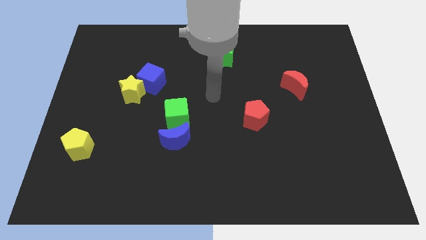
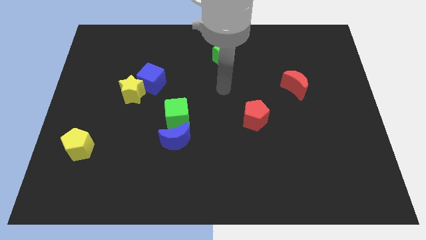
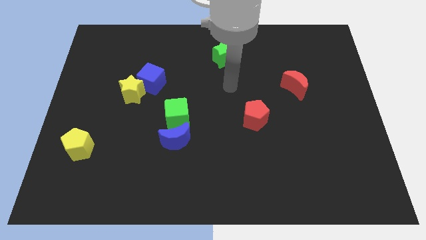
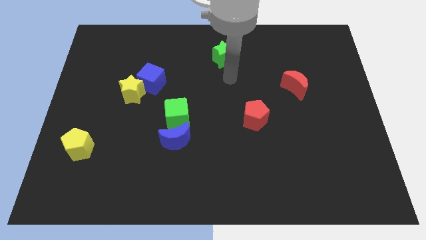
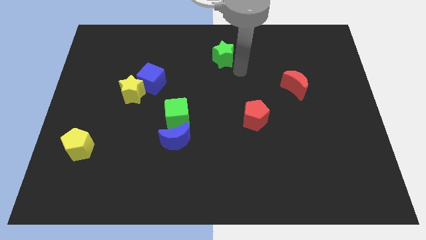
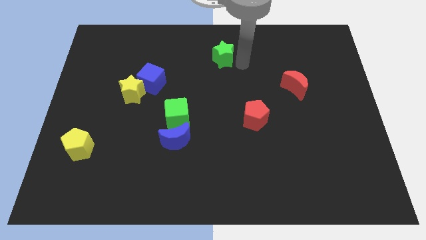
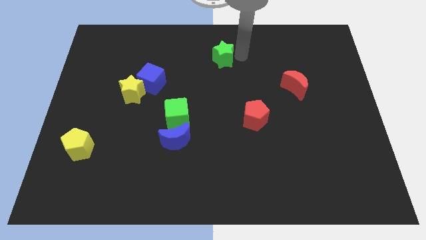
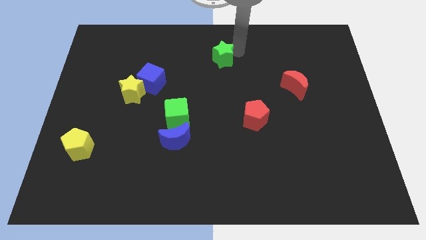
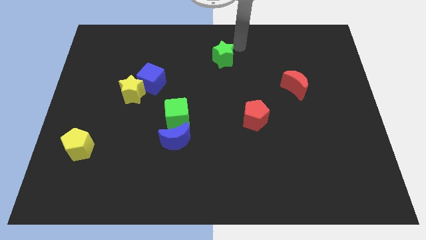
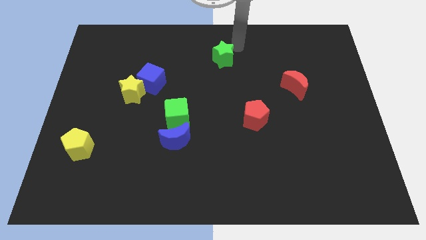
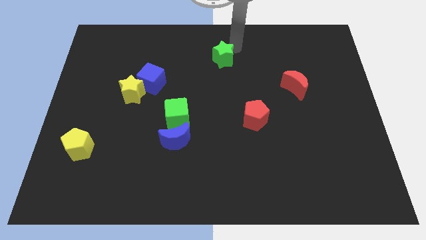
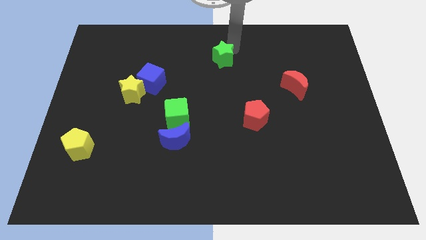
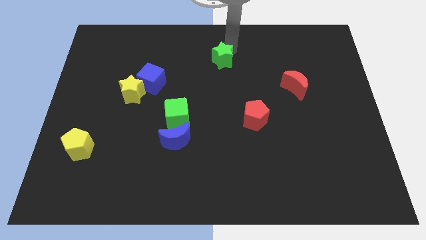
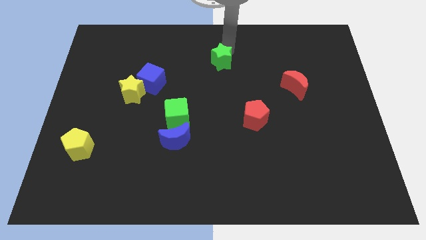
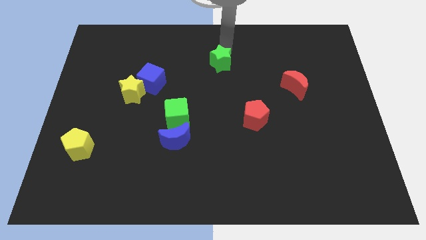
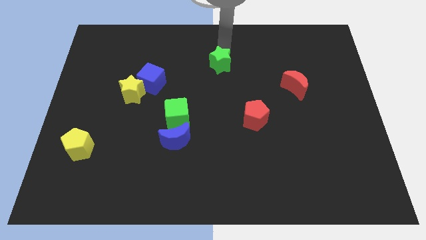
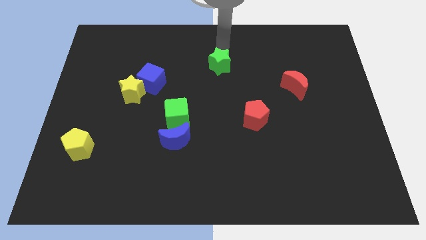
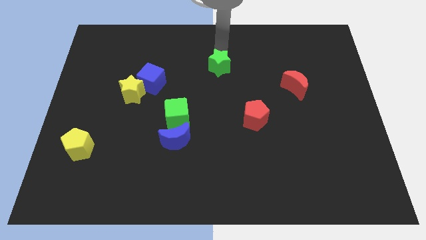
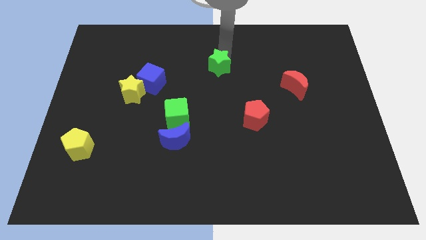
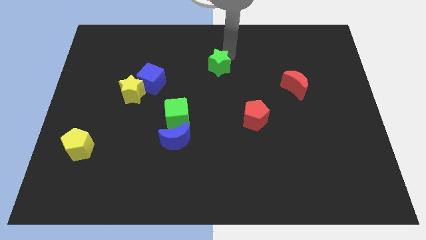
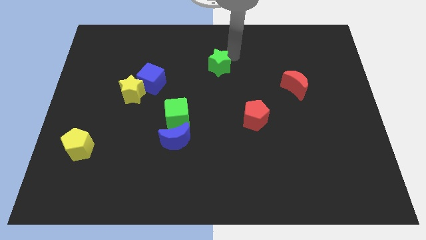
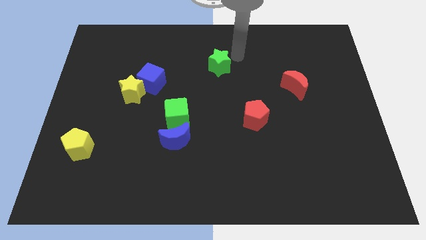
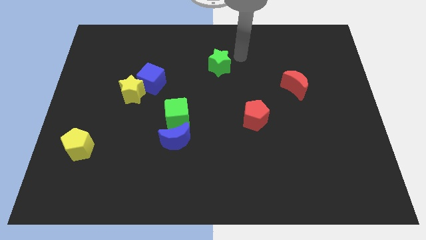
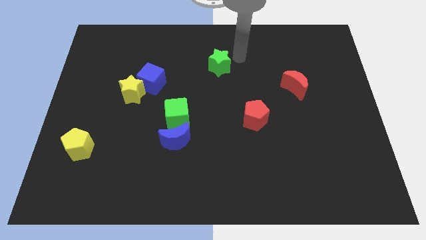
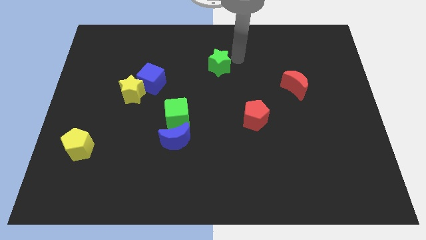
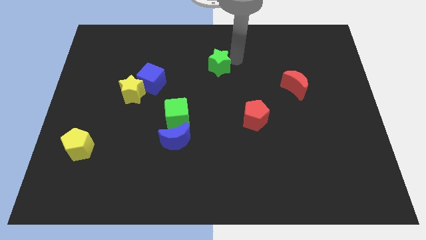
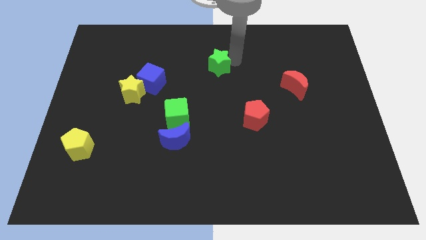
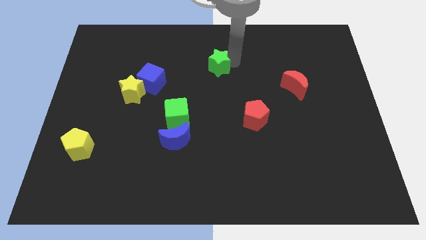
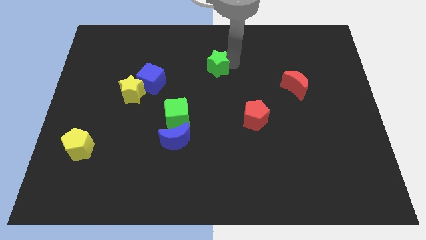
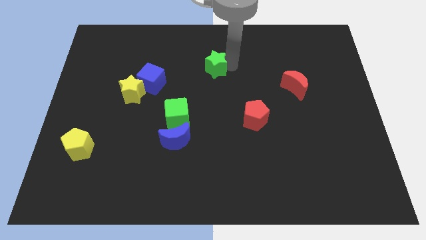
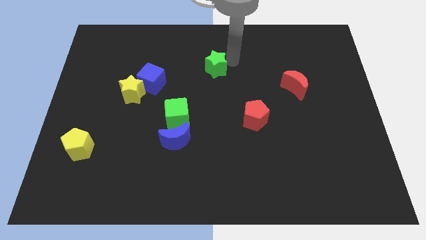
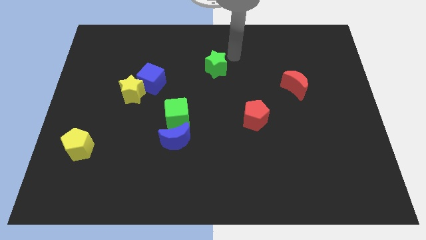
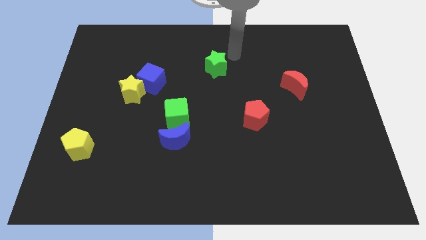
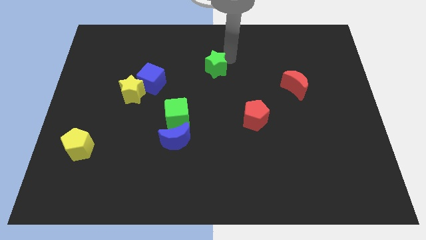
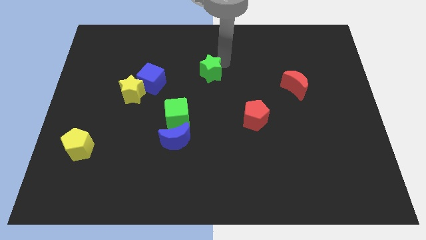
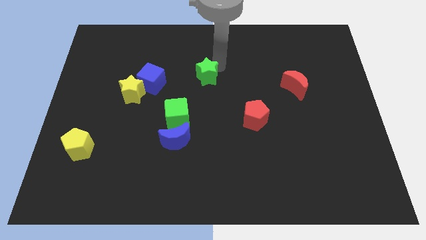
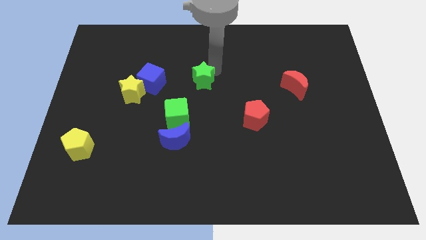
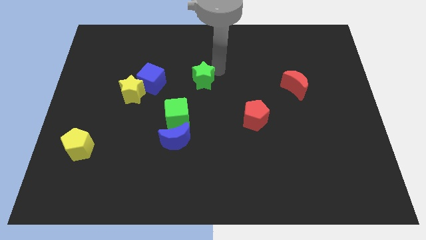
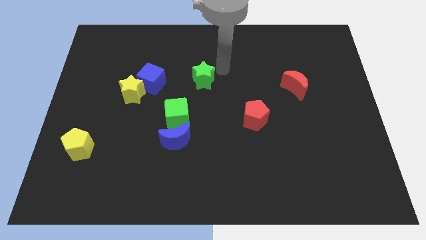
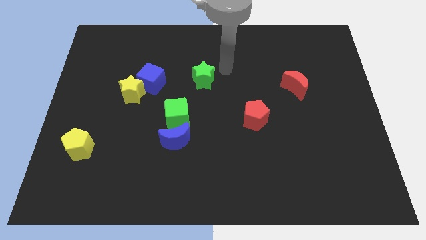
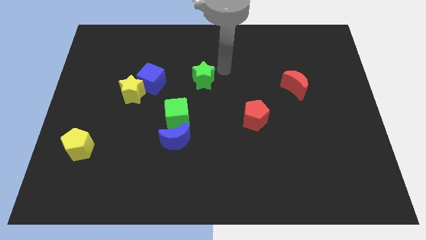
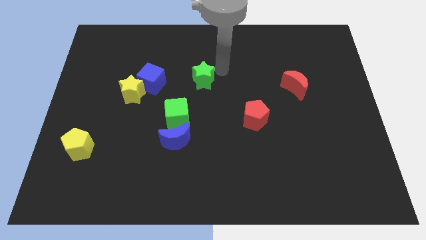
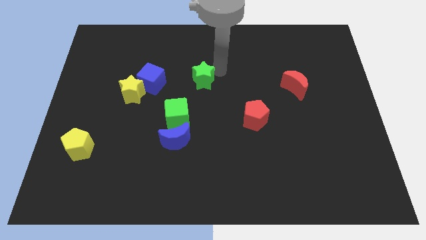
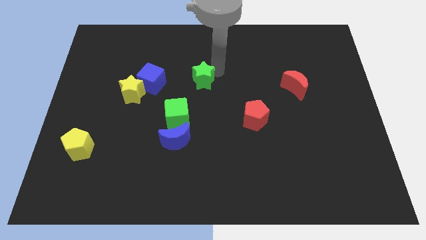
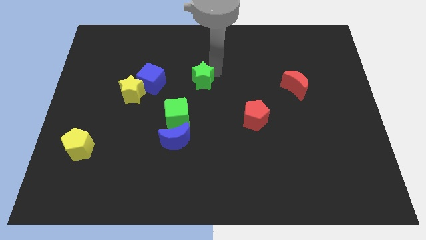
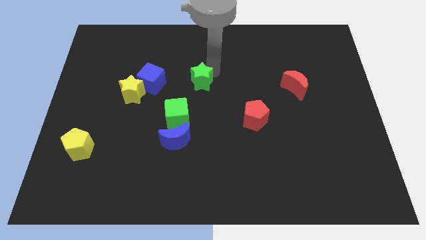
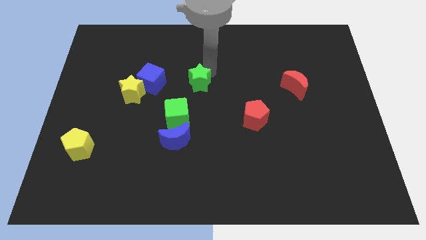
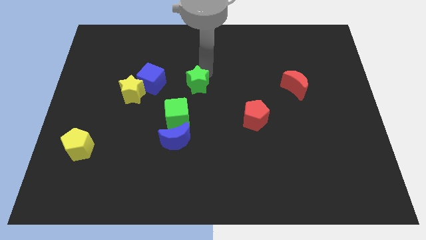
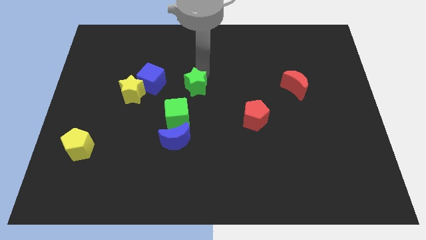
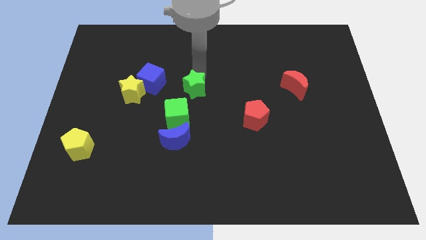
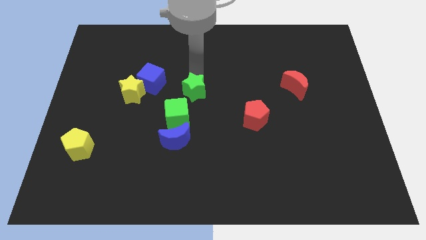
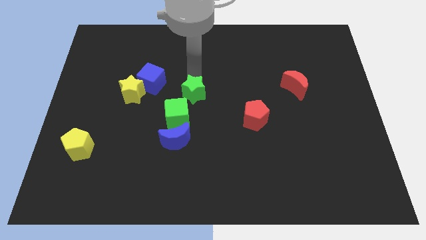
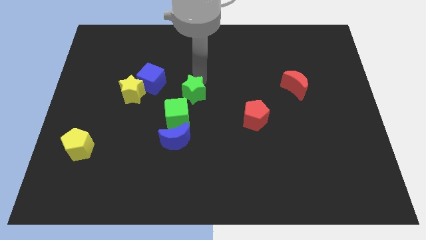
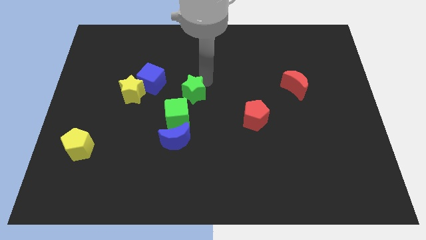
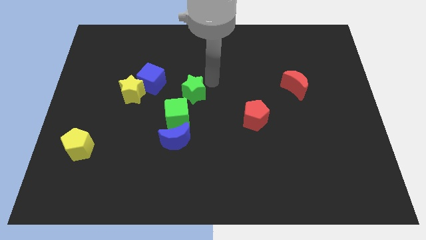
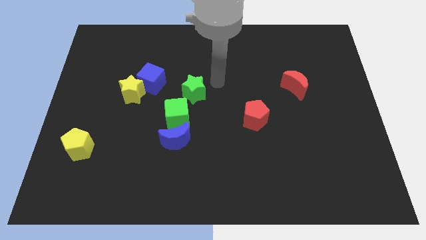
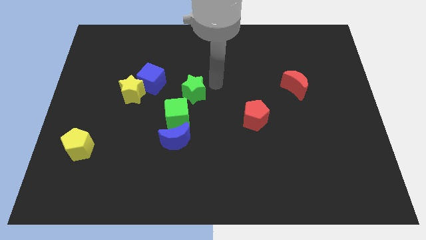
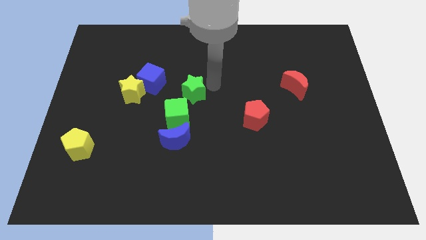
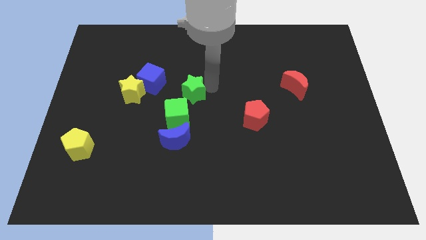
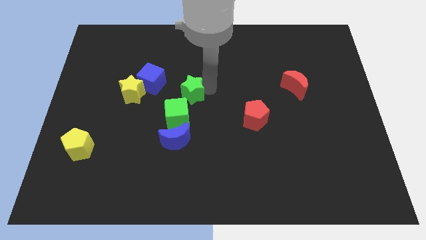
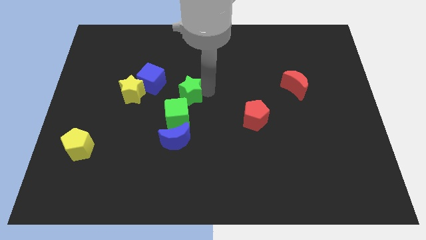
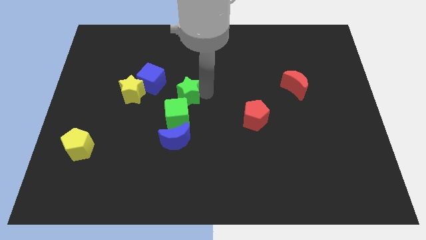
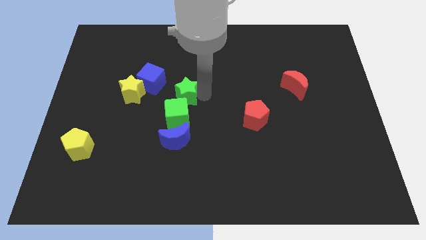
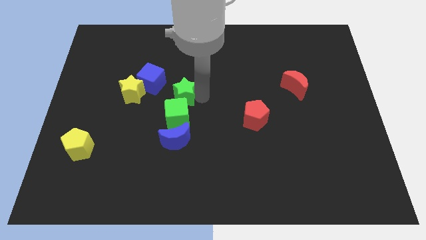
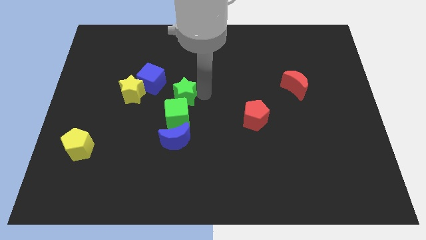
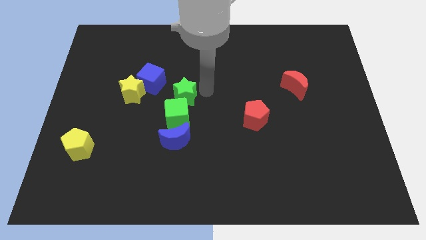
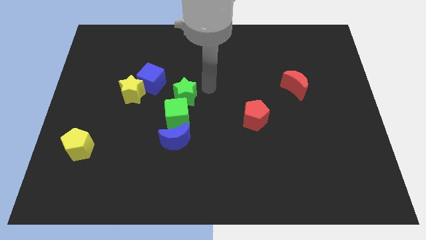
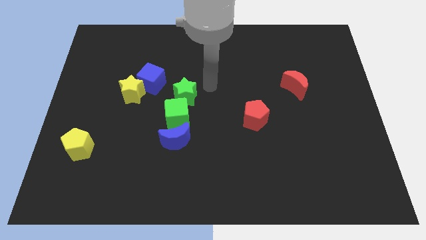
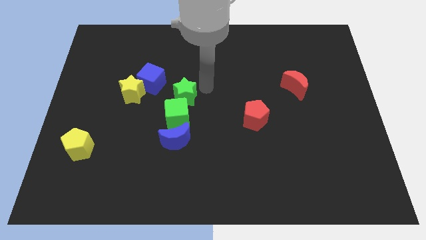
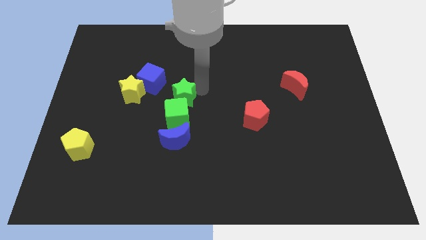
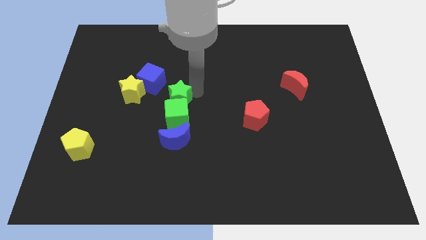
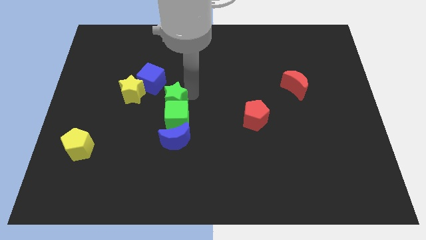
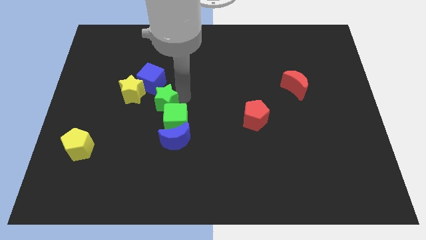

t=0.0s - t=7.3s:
slide the green star to the bottom of the blue cube

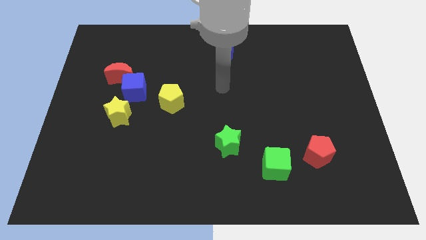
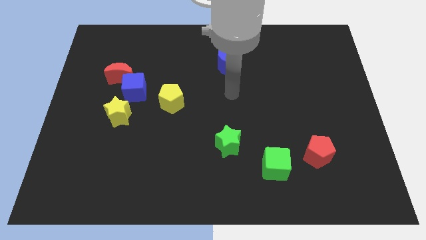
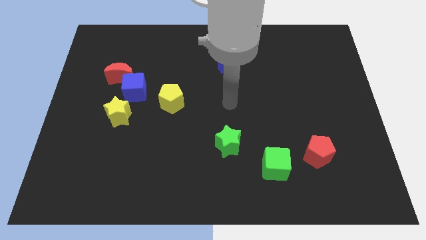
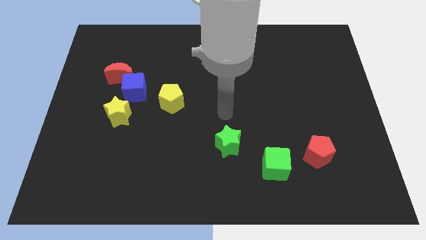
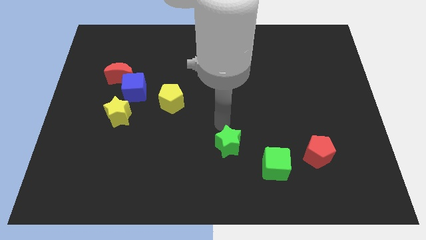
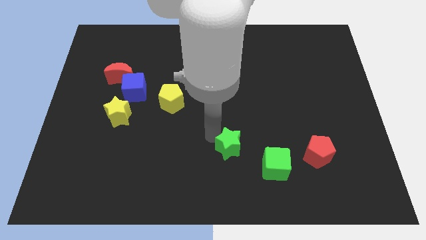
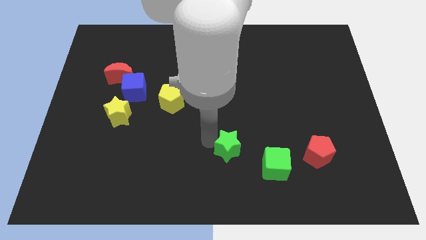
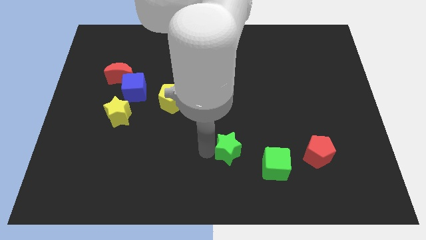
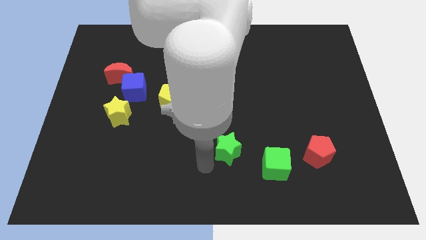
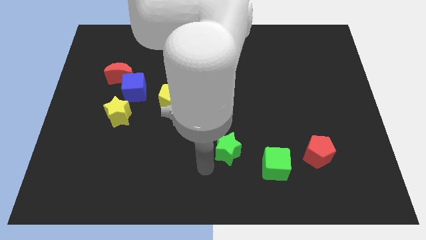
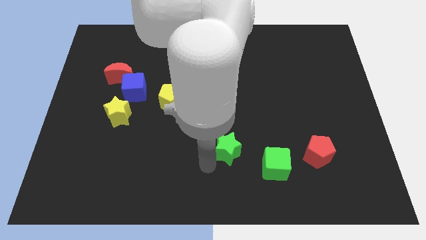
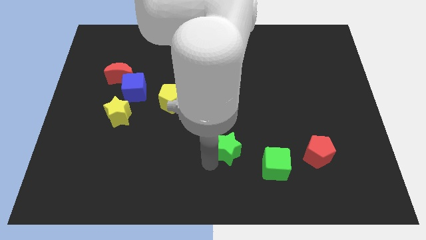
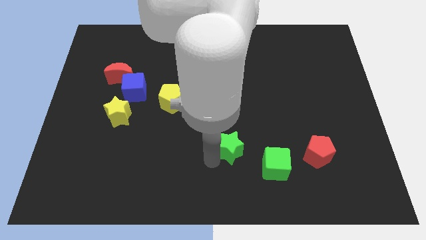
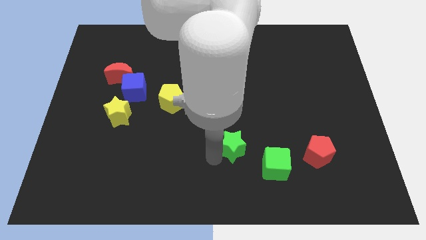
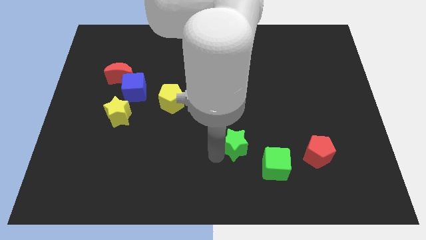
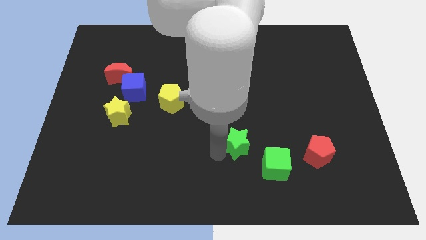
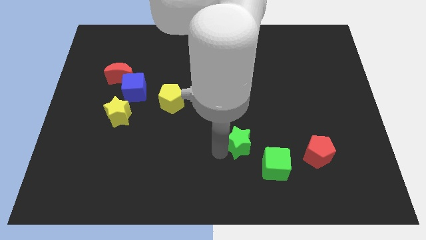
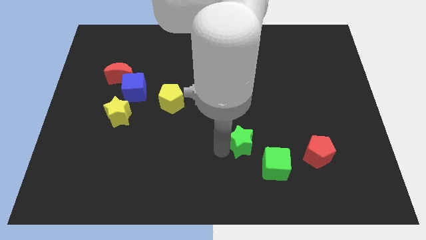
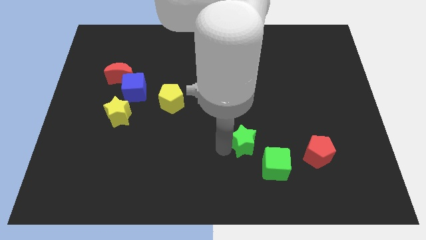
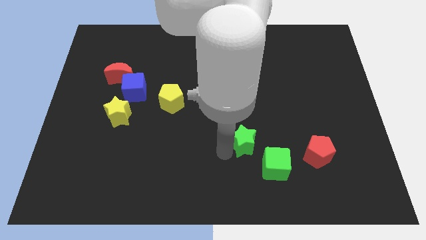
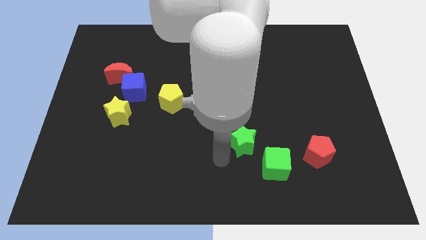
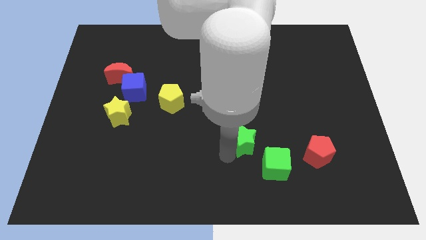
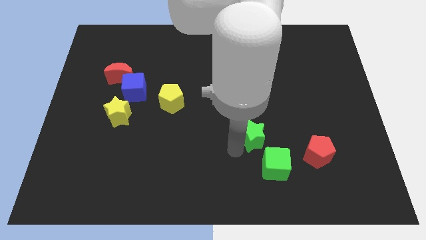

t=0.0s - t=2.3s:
slide the green star to the top of the green cube
